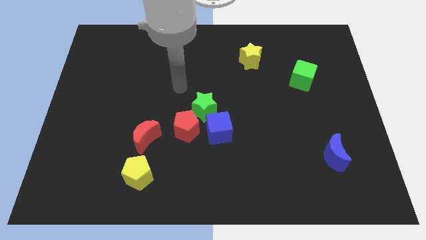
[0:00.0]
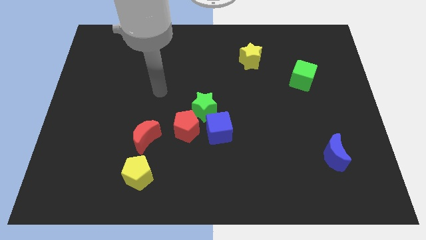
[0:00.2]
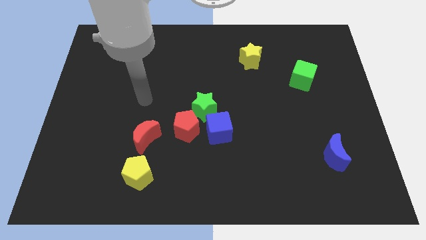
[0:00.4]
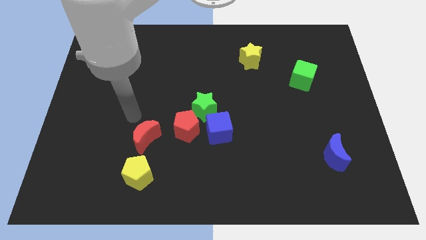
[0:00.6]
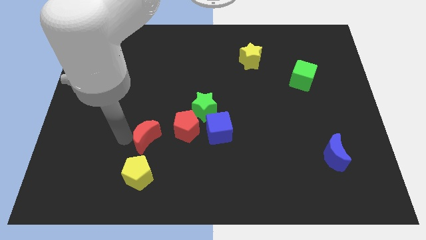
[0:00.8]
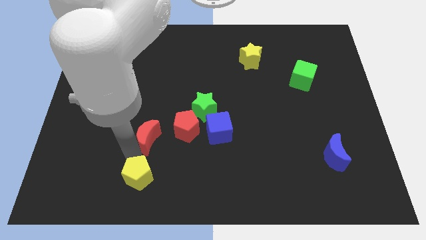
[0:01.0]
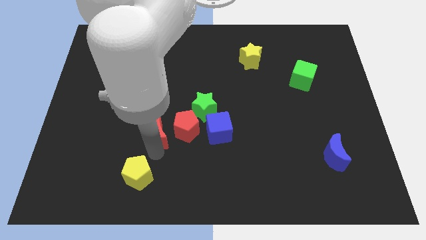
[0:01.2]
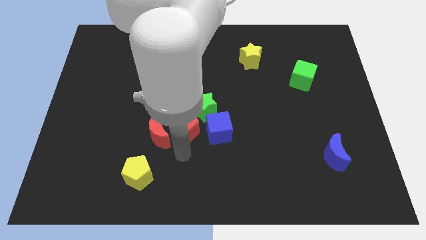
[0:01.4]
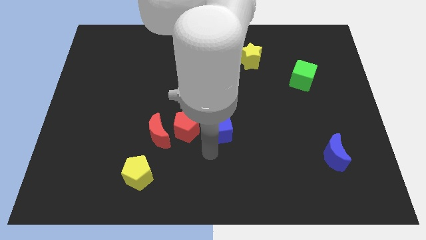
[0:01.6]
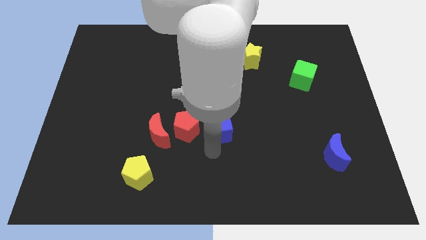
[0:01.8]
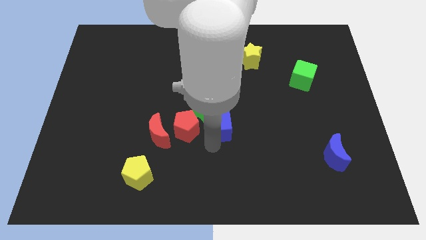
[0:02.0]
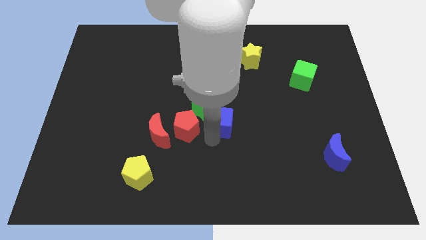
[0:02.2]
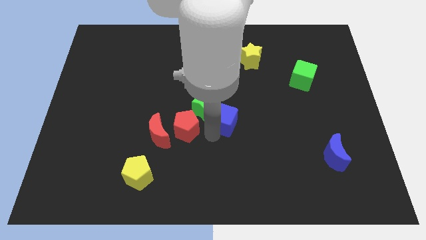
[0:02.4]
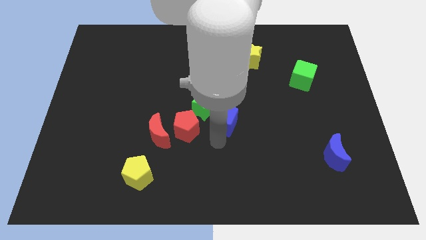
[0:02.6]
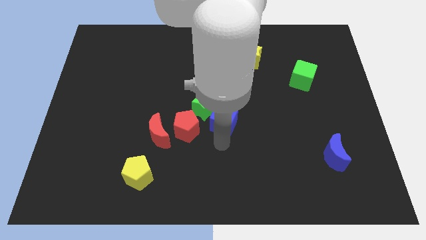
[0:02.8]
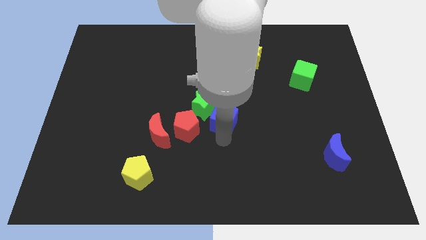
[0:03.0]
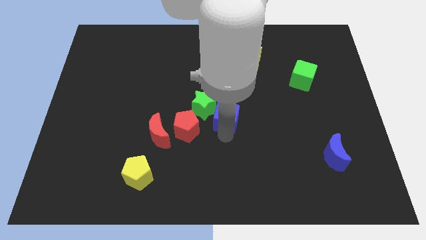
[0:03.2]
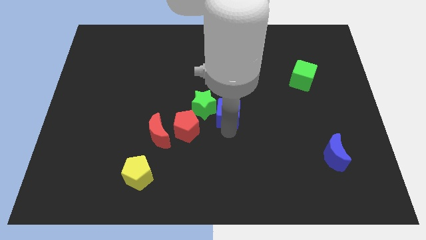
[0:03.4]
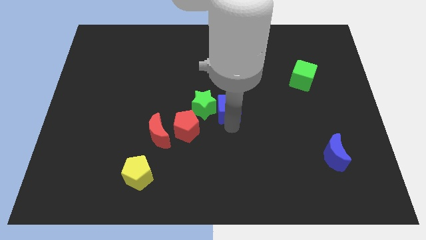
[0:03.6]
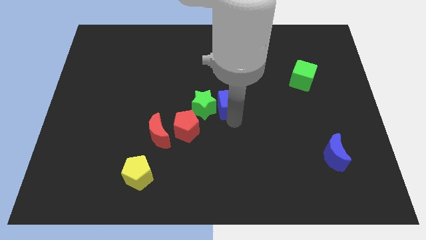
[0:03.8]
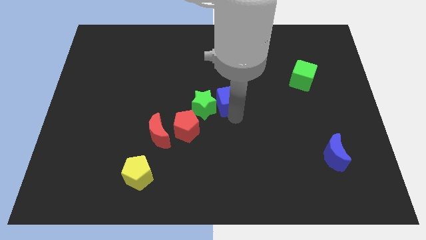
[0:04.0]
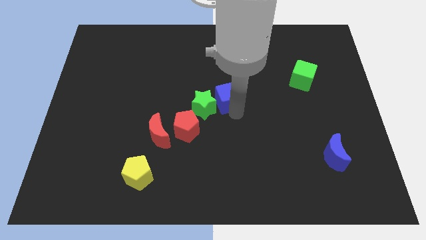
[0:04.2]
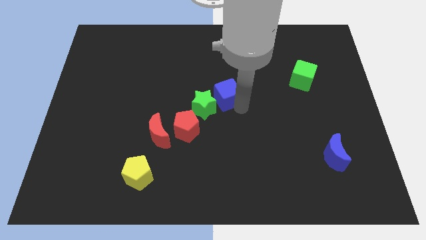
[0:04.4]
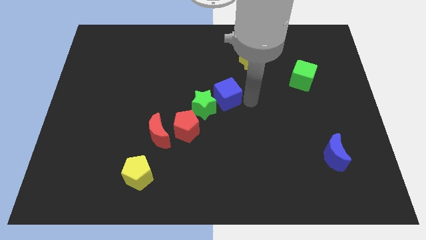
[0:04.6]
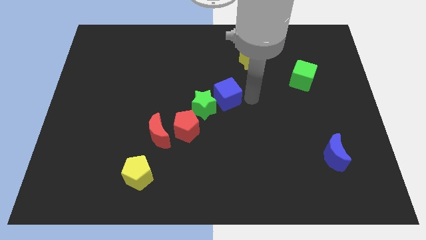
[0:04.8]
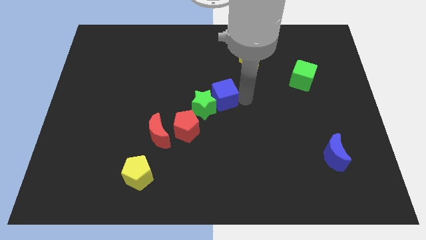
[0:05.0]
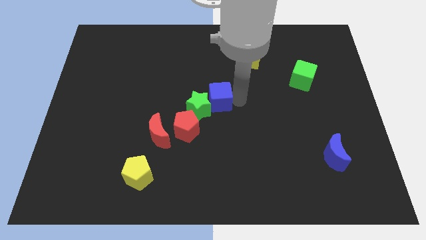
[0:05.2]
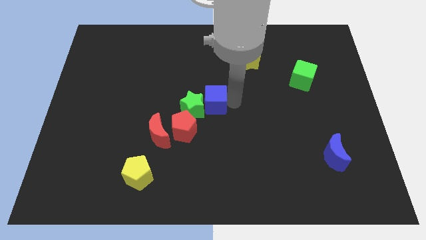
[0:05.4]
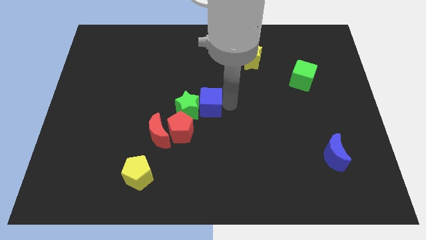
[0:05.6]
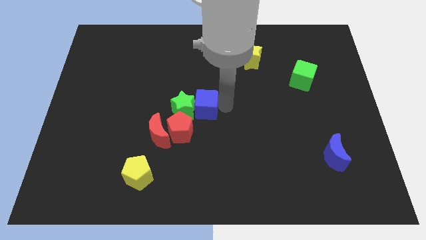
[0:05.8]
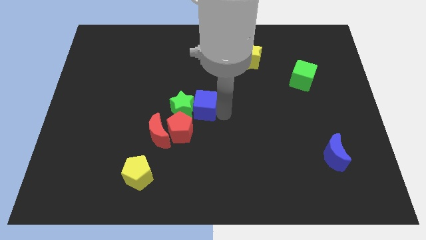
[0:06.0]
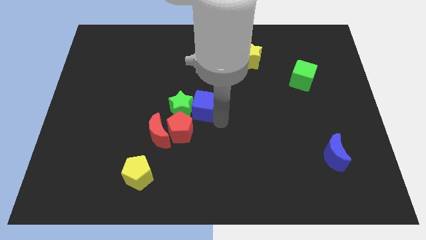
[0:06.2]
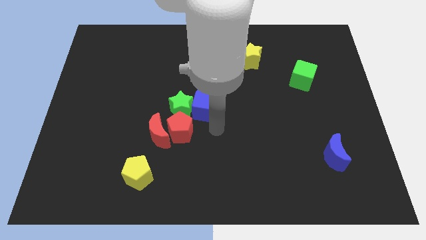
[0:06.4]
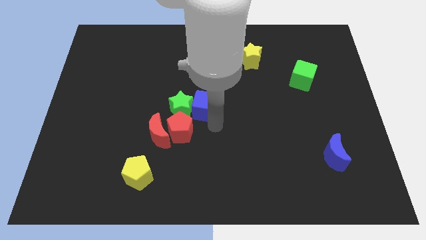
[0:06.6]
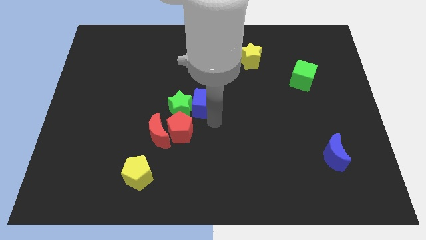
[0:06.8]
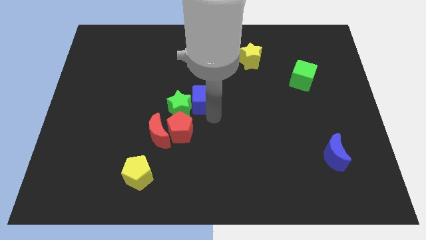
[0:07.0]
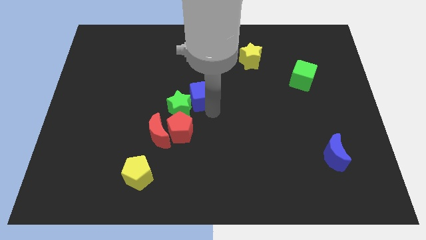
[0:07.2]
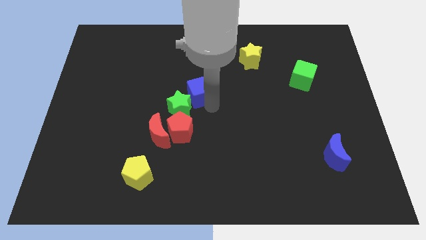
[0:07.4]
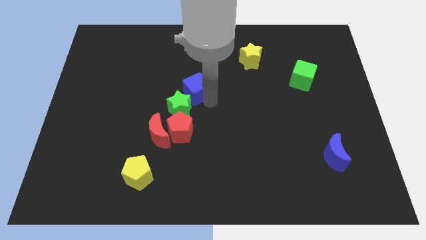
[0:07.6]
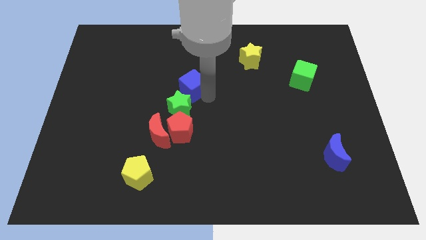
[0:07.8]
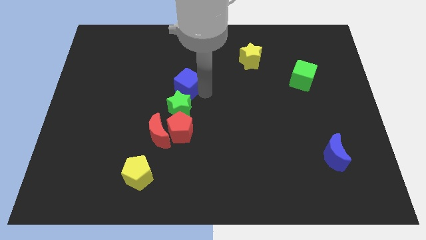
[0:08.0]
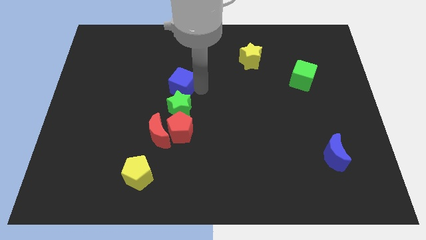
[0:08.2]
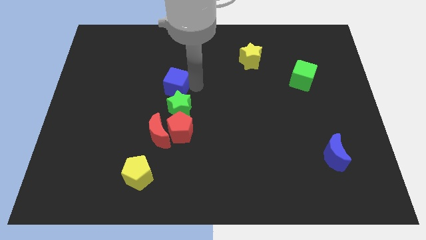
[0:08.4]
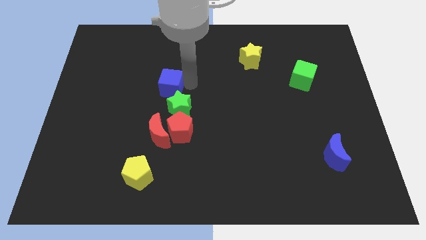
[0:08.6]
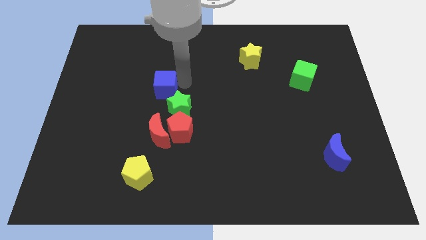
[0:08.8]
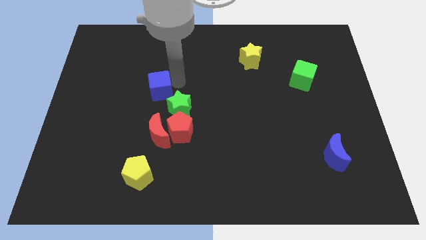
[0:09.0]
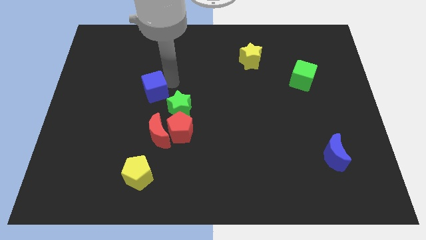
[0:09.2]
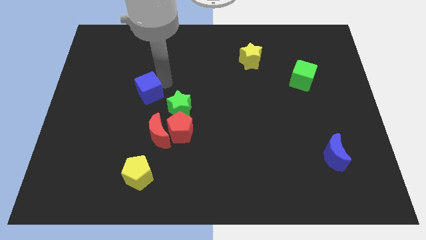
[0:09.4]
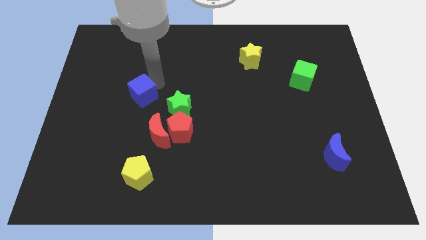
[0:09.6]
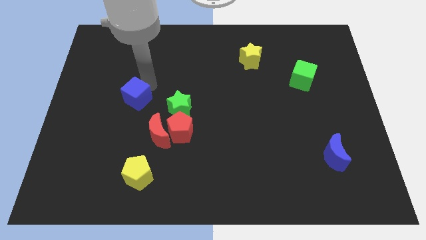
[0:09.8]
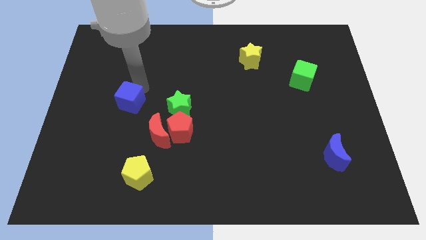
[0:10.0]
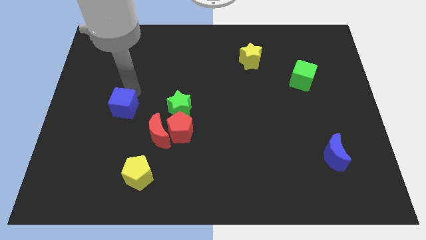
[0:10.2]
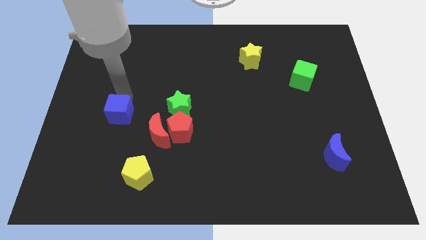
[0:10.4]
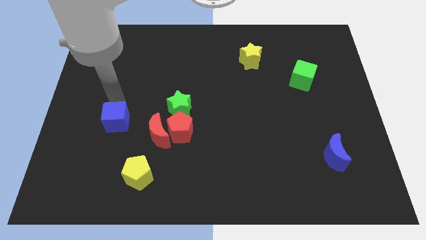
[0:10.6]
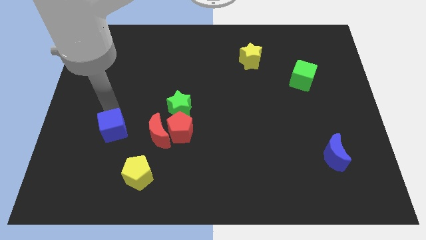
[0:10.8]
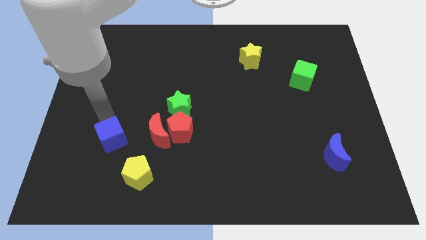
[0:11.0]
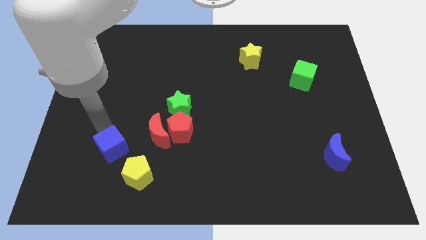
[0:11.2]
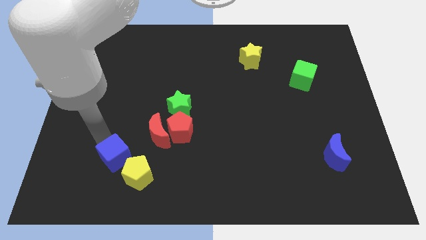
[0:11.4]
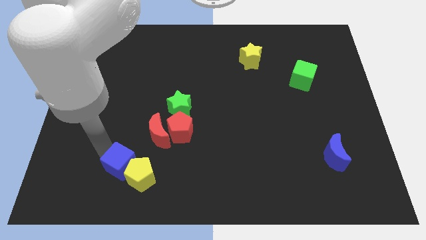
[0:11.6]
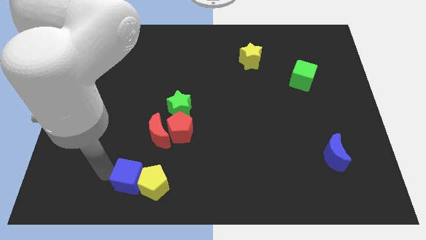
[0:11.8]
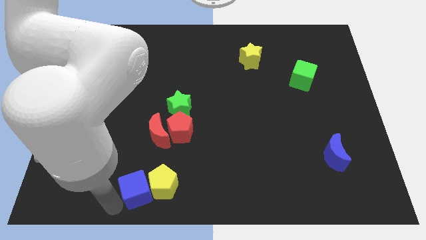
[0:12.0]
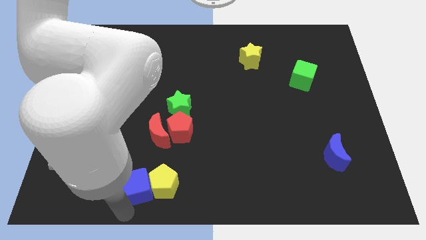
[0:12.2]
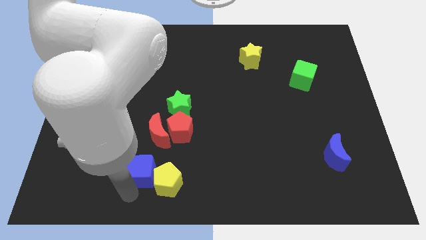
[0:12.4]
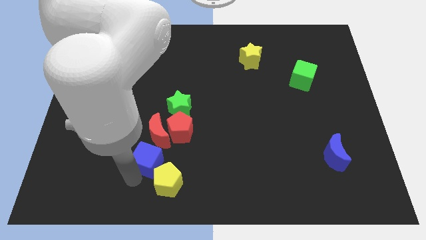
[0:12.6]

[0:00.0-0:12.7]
push the blue cube to the top side of the yellow pentagon

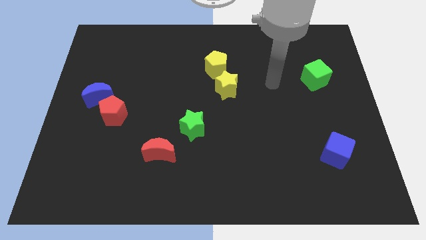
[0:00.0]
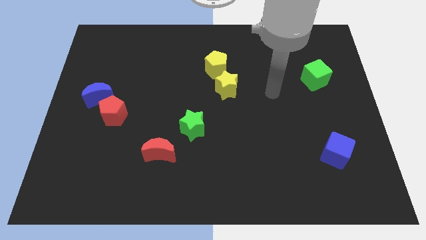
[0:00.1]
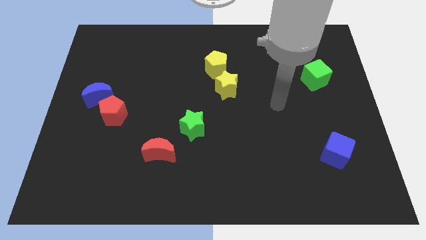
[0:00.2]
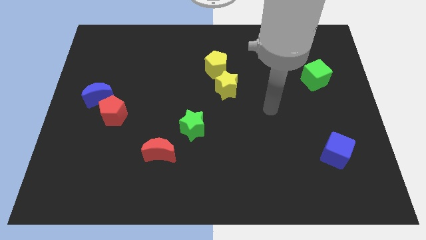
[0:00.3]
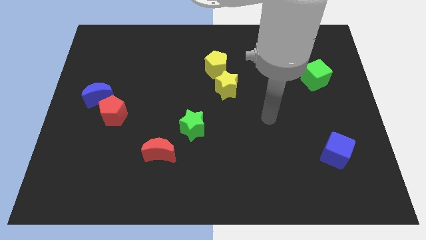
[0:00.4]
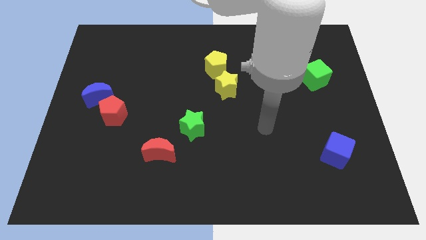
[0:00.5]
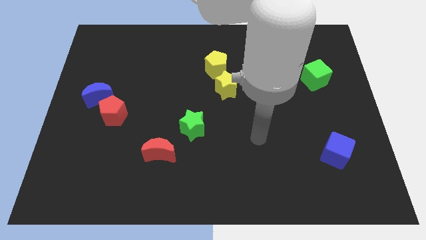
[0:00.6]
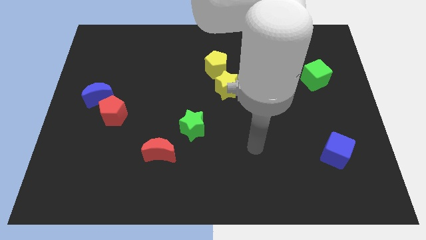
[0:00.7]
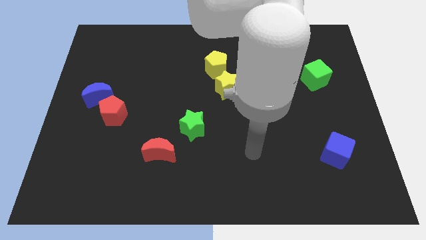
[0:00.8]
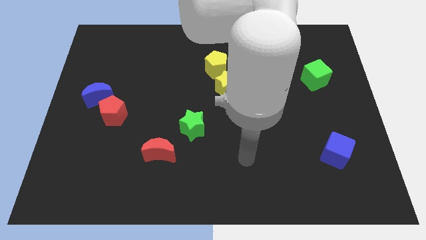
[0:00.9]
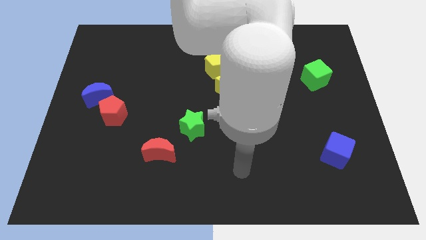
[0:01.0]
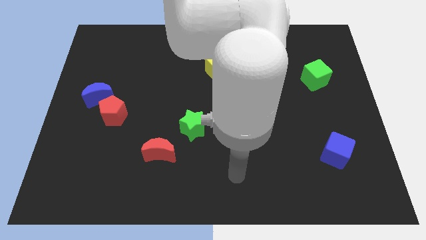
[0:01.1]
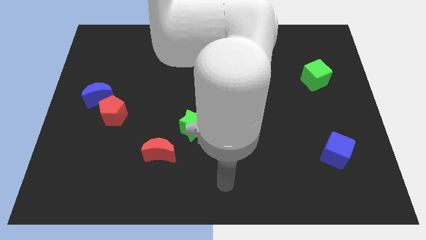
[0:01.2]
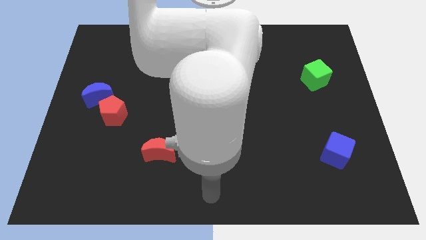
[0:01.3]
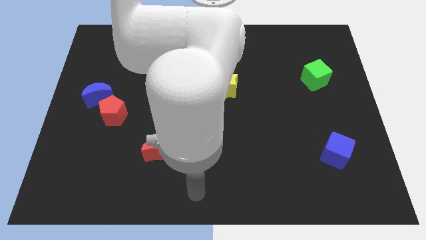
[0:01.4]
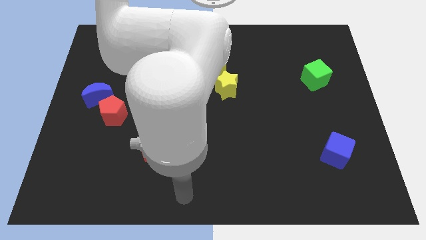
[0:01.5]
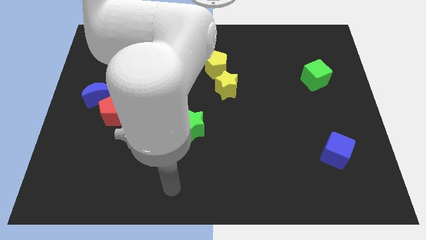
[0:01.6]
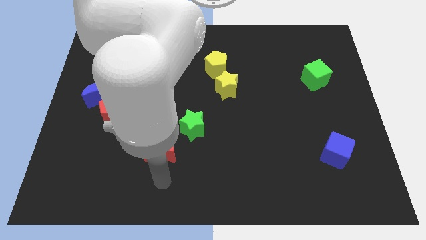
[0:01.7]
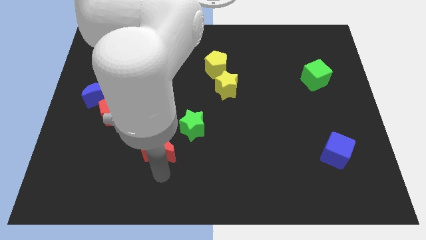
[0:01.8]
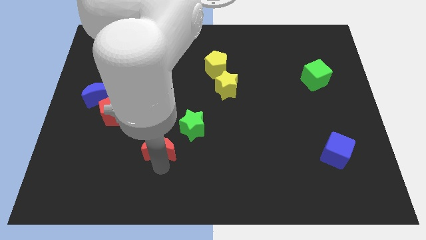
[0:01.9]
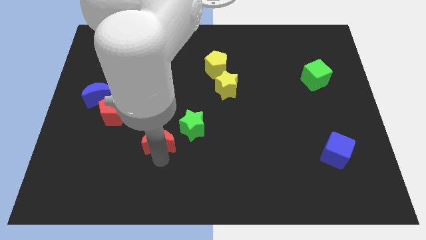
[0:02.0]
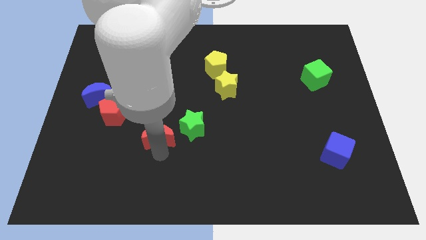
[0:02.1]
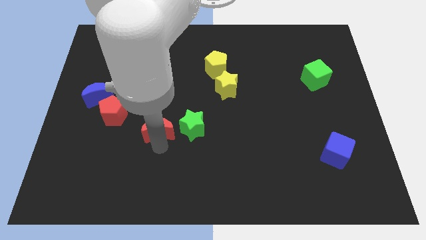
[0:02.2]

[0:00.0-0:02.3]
push the red moon just right of the red pentagon
